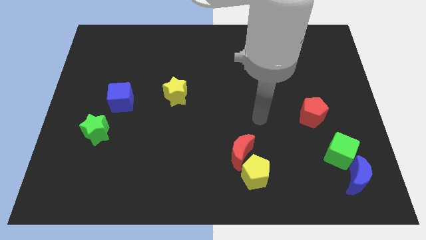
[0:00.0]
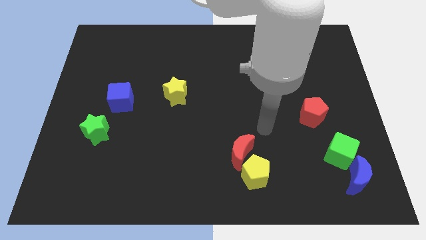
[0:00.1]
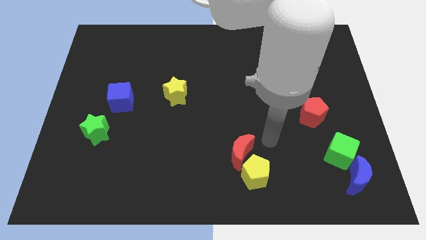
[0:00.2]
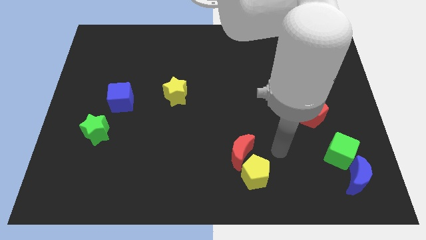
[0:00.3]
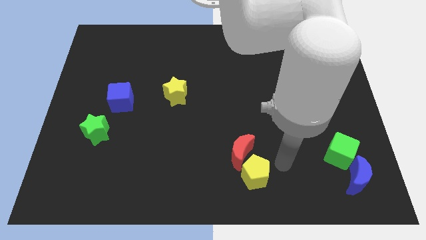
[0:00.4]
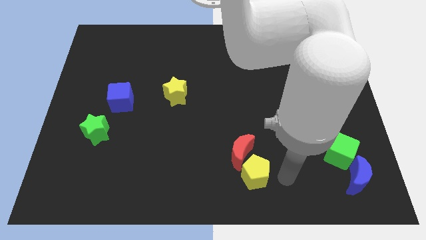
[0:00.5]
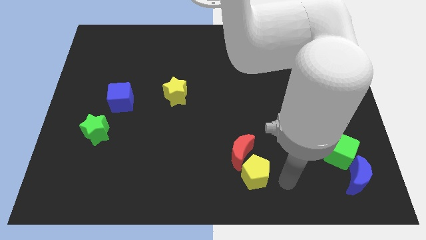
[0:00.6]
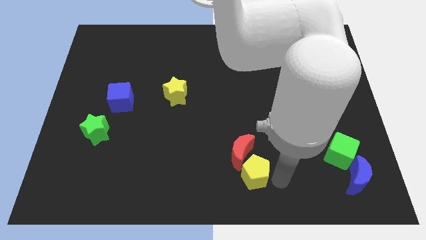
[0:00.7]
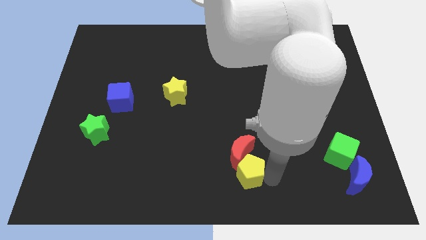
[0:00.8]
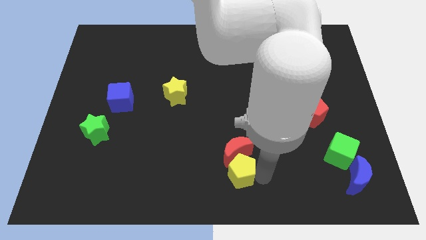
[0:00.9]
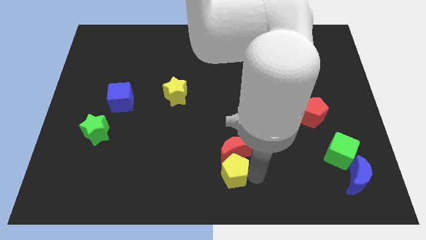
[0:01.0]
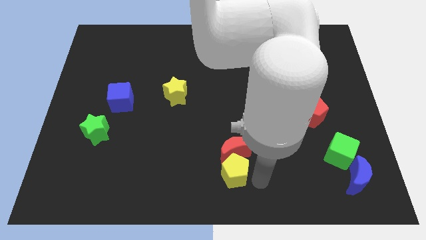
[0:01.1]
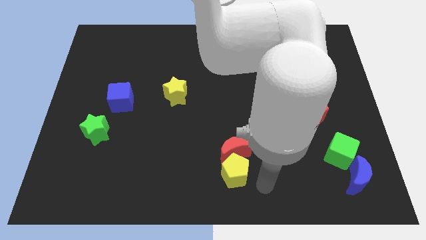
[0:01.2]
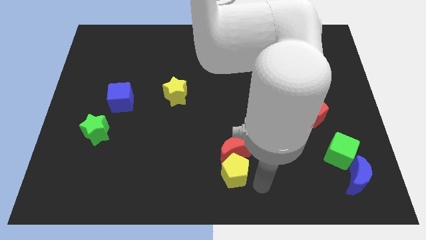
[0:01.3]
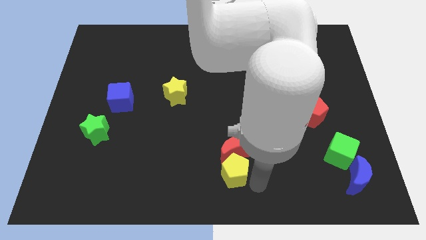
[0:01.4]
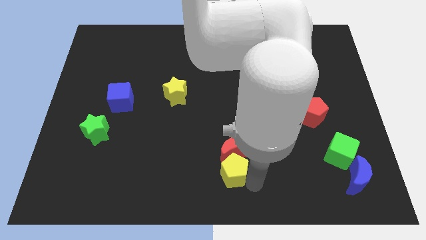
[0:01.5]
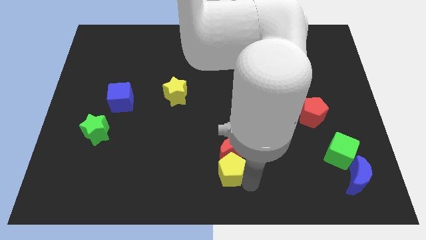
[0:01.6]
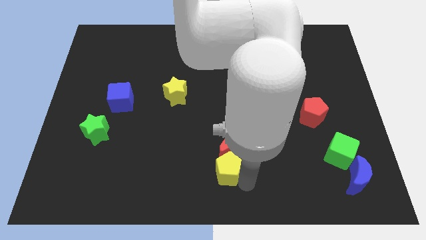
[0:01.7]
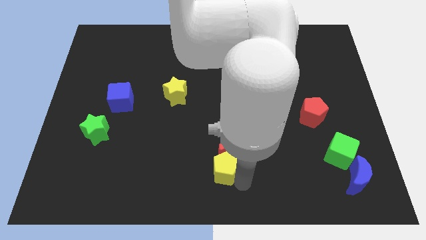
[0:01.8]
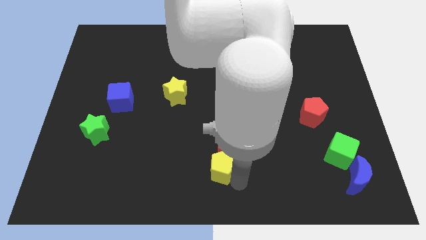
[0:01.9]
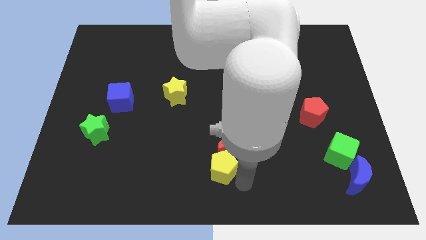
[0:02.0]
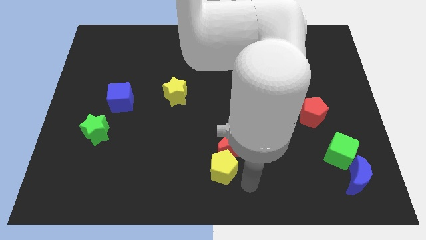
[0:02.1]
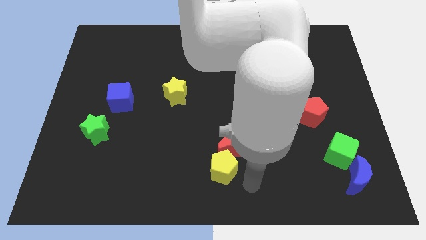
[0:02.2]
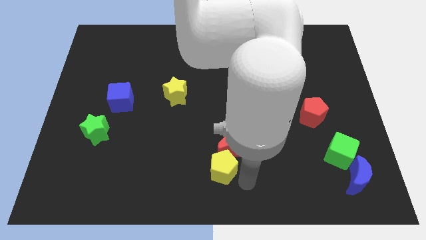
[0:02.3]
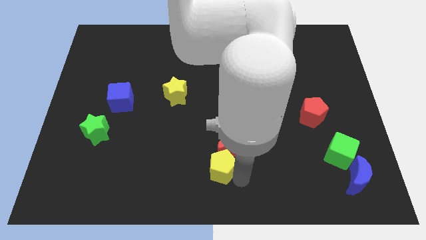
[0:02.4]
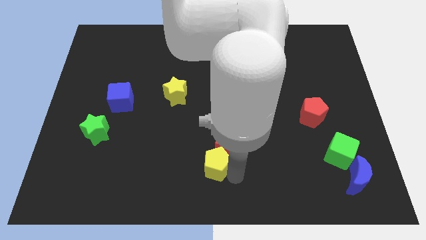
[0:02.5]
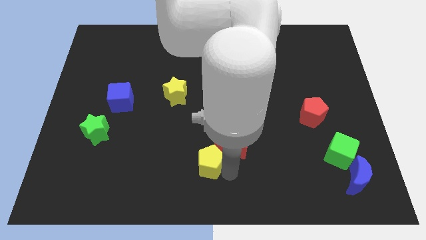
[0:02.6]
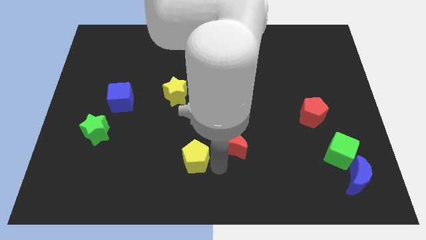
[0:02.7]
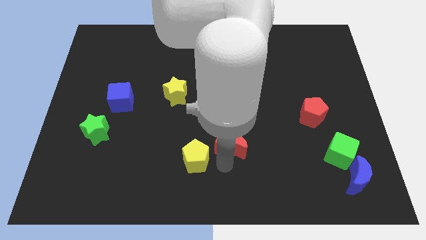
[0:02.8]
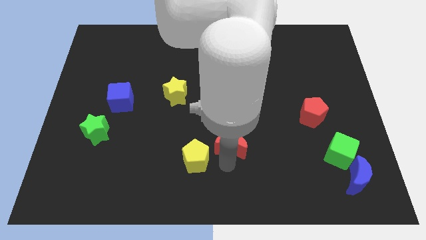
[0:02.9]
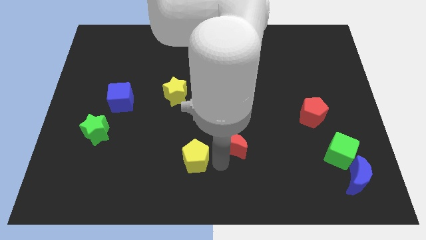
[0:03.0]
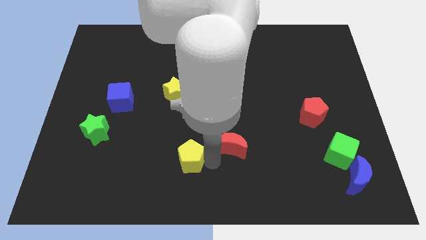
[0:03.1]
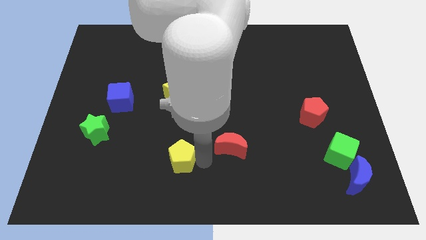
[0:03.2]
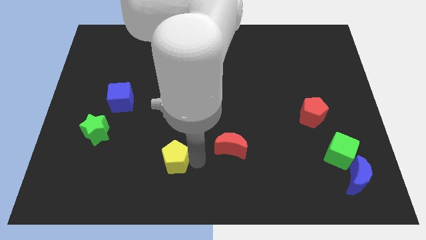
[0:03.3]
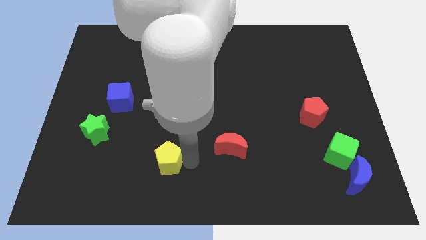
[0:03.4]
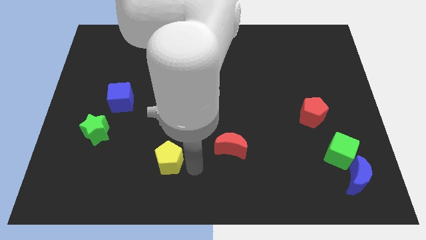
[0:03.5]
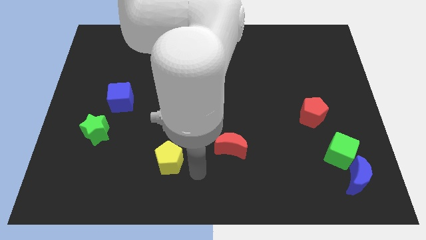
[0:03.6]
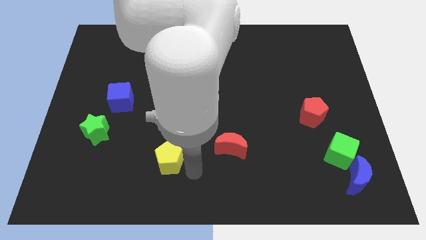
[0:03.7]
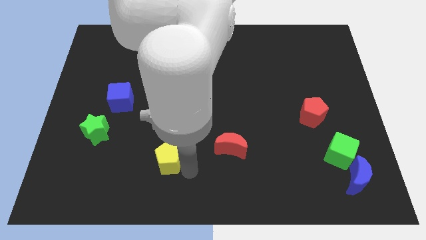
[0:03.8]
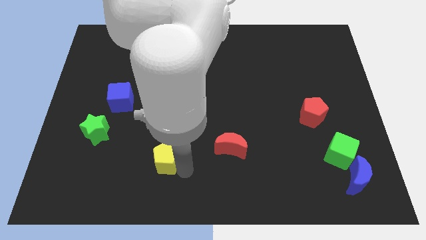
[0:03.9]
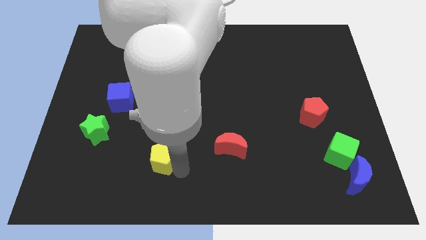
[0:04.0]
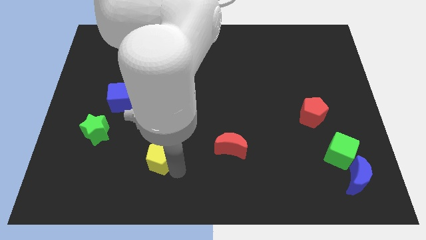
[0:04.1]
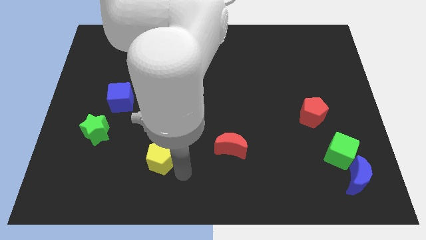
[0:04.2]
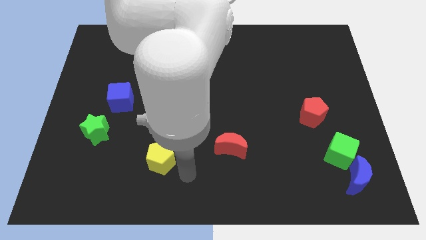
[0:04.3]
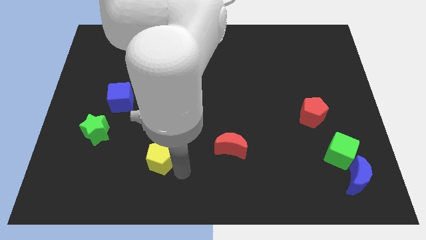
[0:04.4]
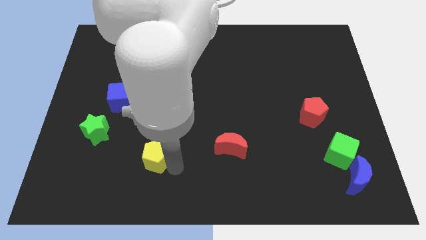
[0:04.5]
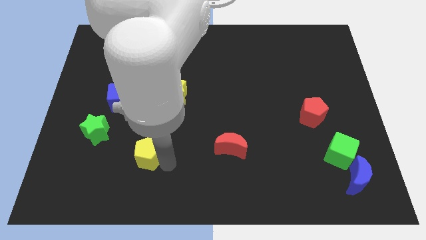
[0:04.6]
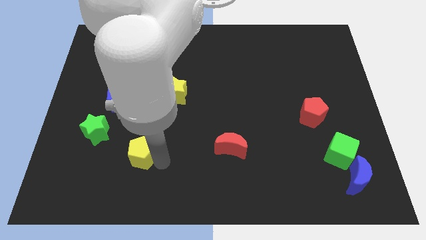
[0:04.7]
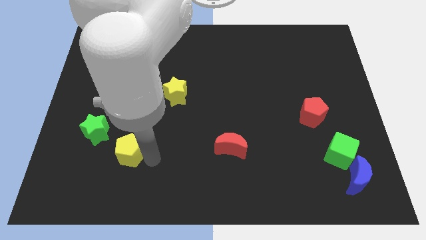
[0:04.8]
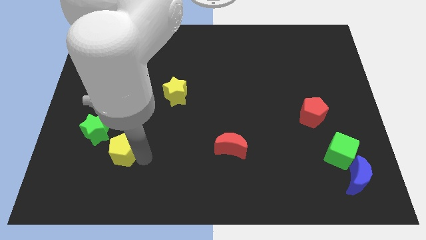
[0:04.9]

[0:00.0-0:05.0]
slide the yellow pentagon below the blue cube

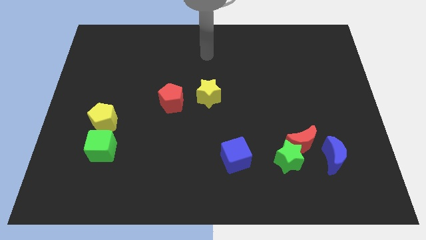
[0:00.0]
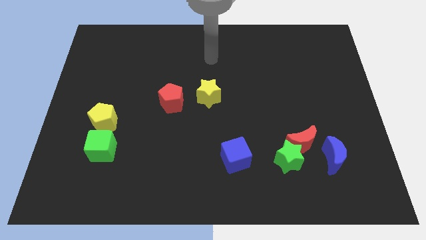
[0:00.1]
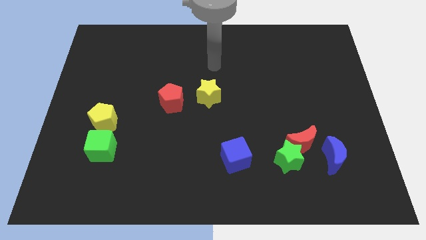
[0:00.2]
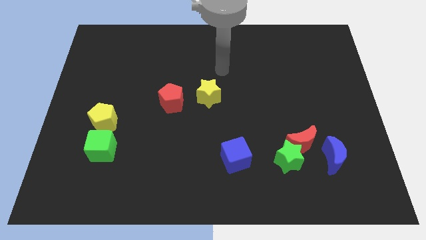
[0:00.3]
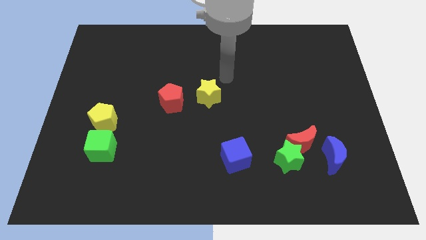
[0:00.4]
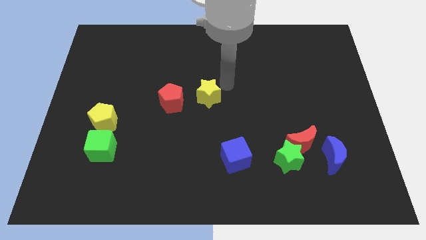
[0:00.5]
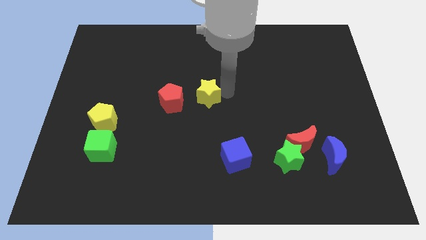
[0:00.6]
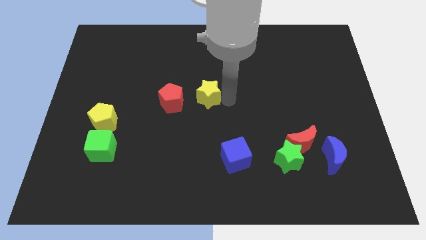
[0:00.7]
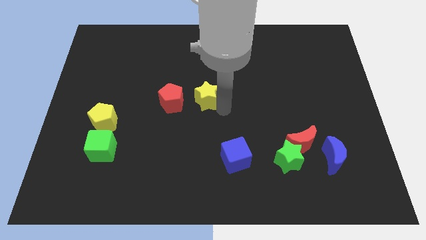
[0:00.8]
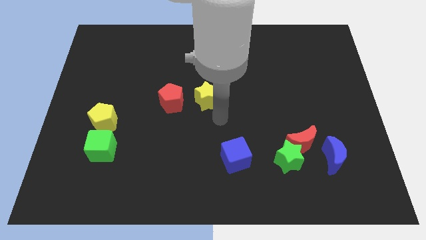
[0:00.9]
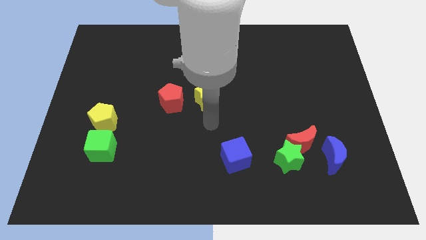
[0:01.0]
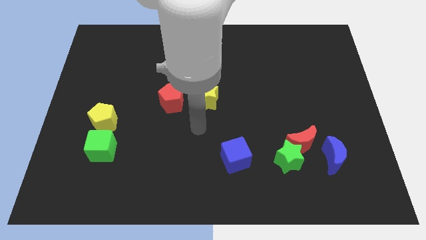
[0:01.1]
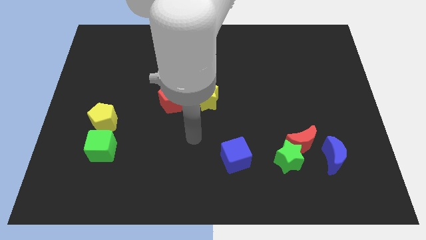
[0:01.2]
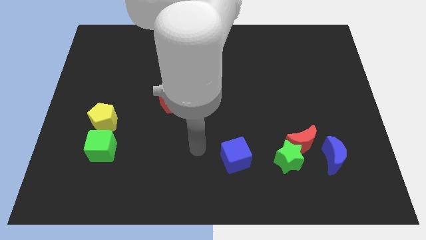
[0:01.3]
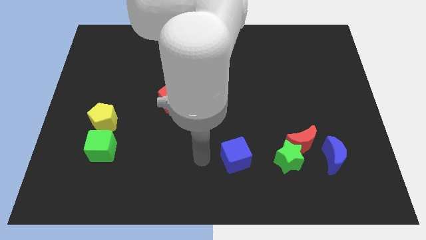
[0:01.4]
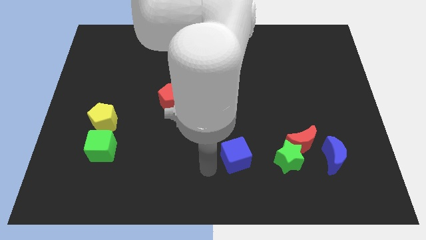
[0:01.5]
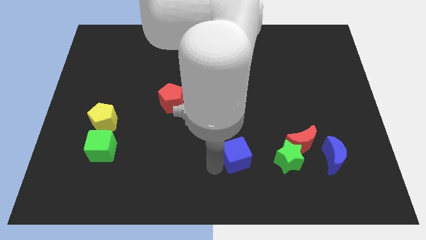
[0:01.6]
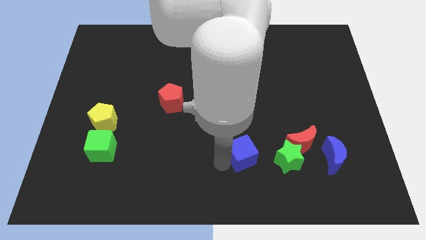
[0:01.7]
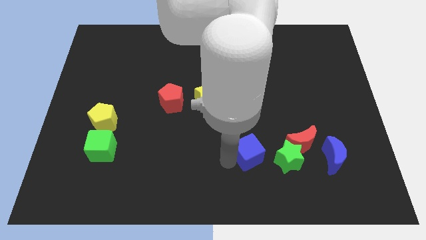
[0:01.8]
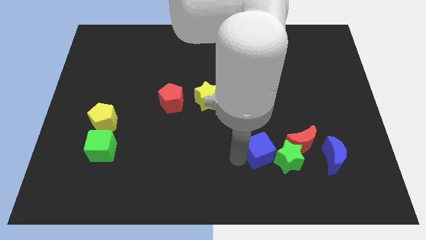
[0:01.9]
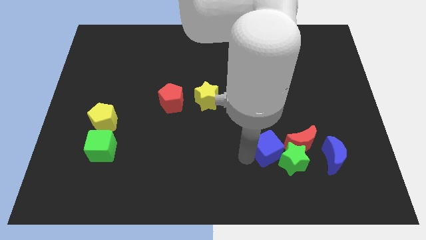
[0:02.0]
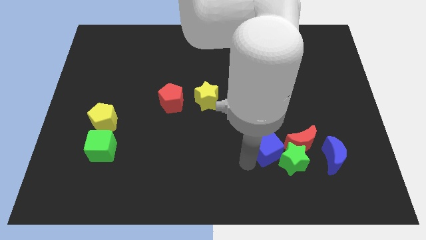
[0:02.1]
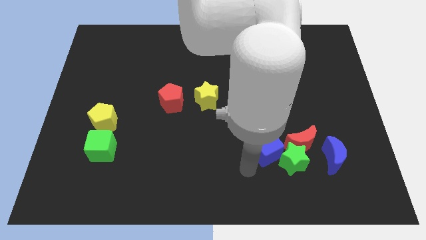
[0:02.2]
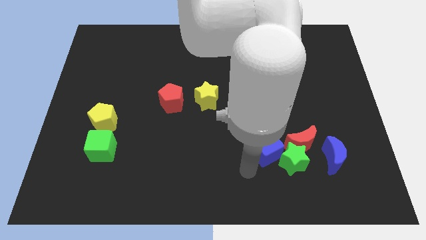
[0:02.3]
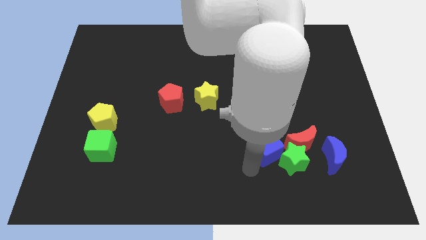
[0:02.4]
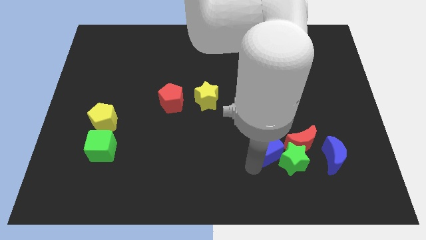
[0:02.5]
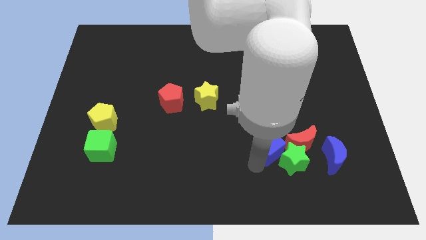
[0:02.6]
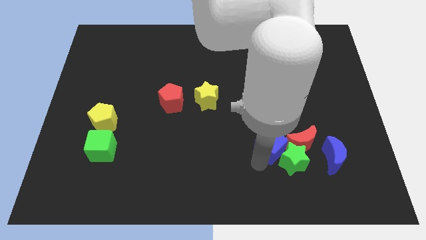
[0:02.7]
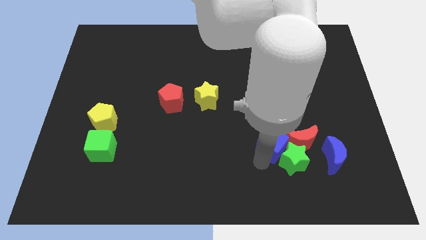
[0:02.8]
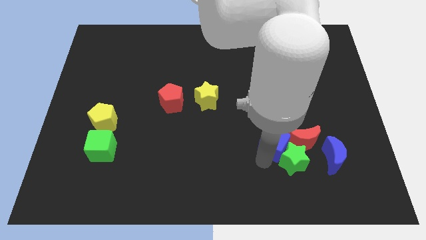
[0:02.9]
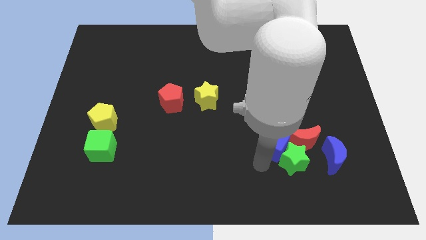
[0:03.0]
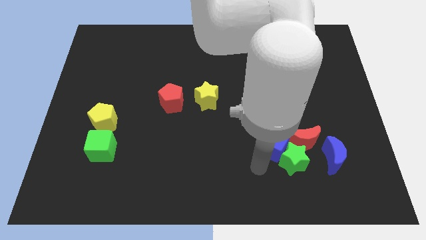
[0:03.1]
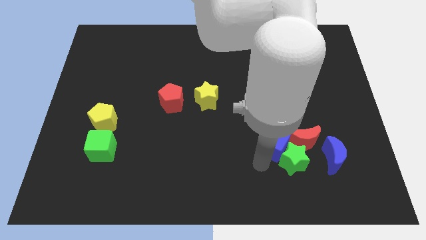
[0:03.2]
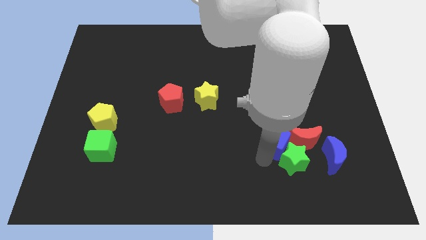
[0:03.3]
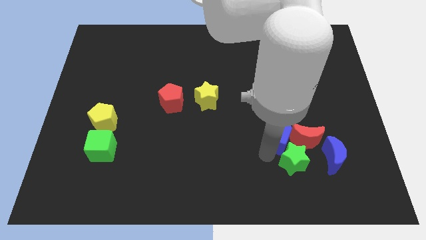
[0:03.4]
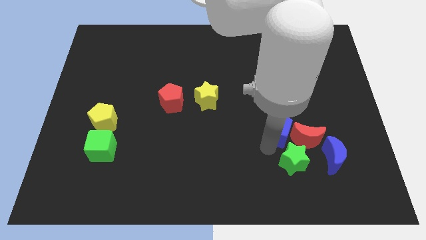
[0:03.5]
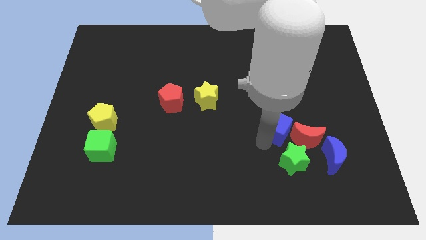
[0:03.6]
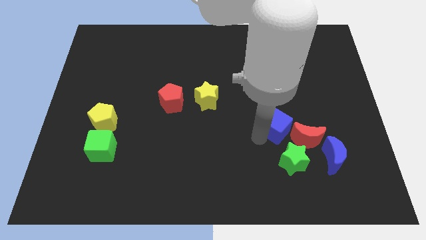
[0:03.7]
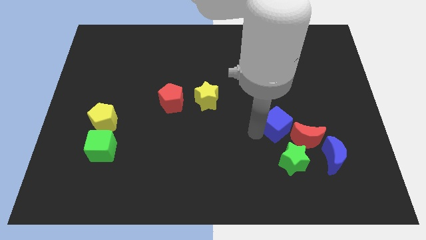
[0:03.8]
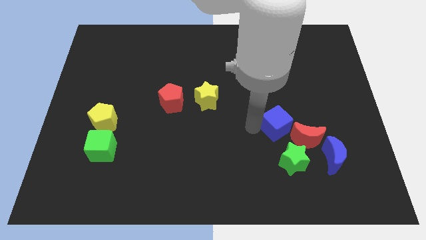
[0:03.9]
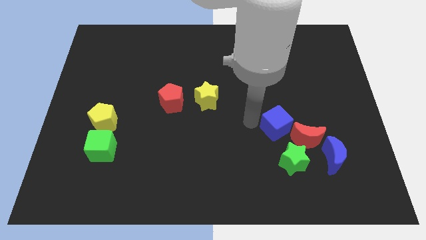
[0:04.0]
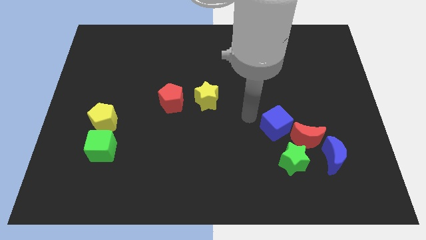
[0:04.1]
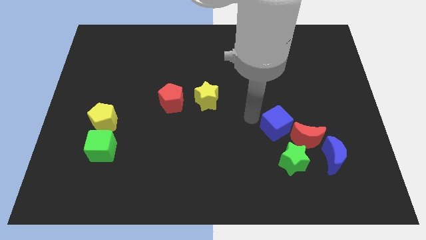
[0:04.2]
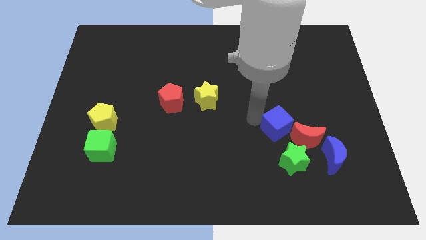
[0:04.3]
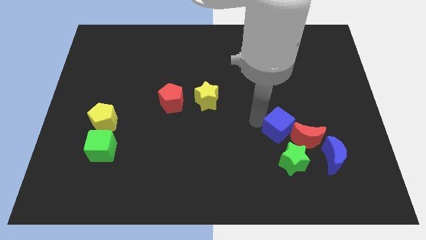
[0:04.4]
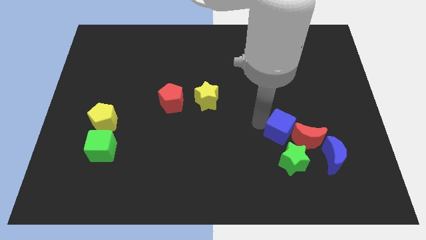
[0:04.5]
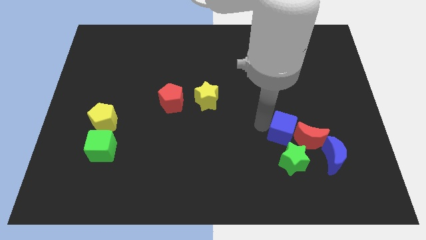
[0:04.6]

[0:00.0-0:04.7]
put the blue cube to the top left side of the blue moon
